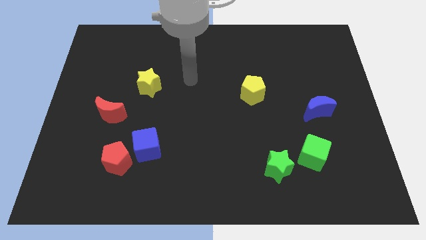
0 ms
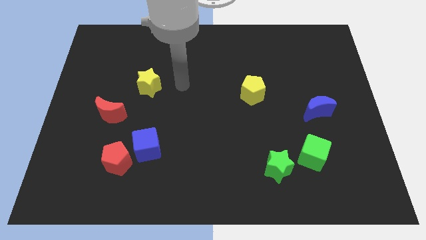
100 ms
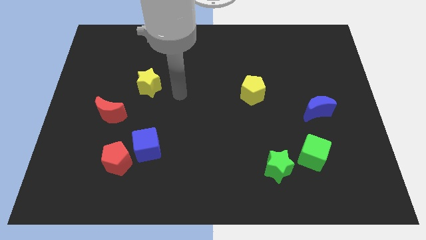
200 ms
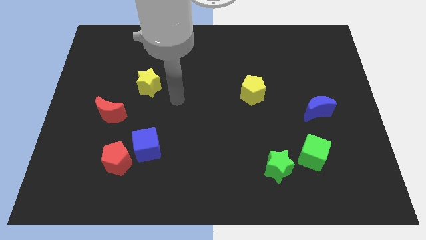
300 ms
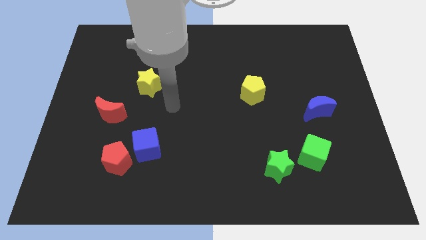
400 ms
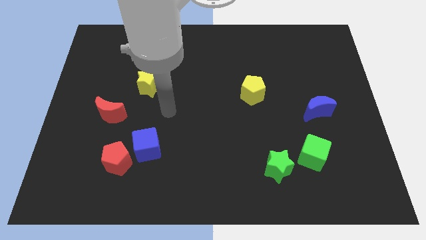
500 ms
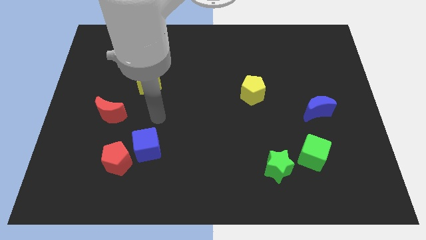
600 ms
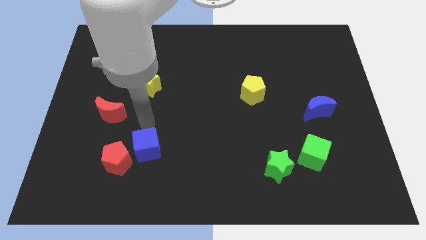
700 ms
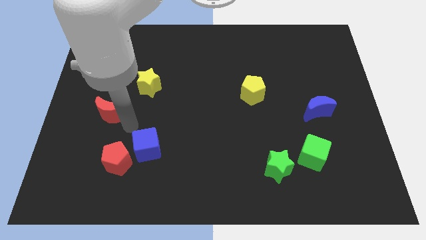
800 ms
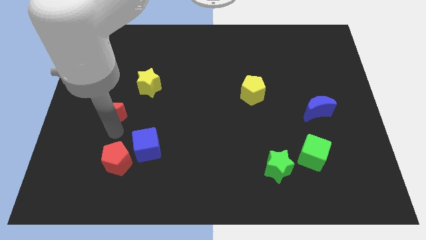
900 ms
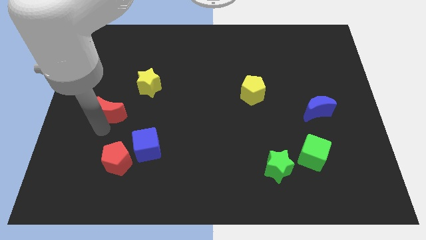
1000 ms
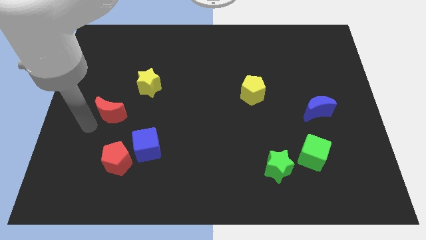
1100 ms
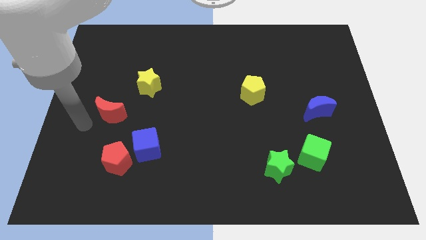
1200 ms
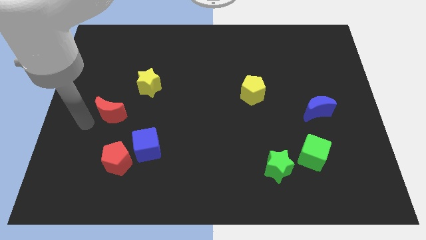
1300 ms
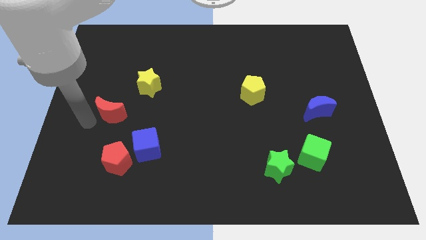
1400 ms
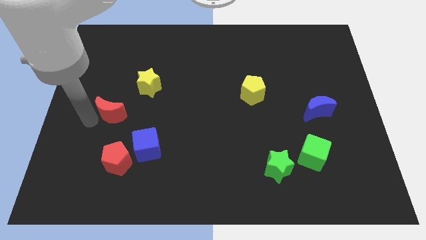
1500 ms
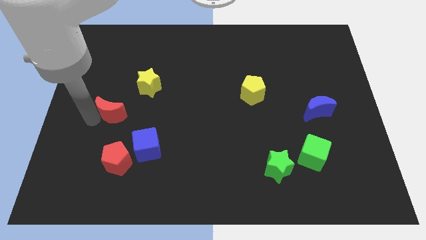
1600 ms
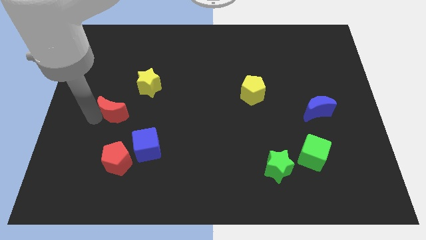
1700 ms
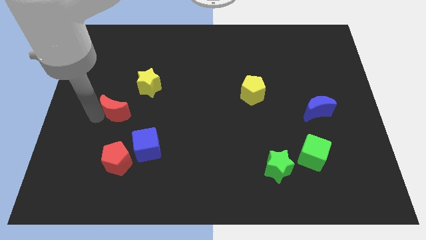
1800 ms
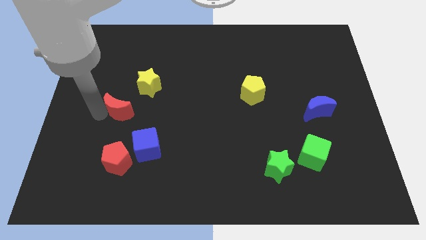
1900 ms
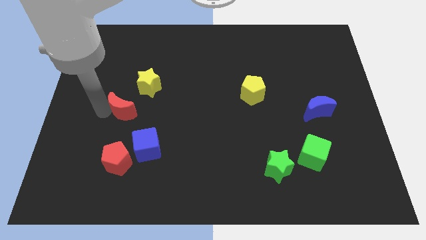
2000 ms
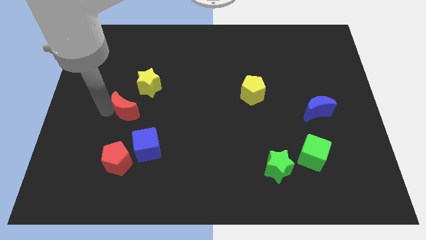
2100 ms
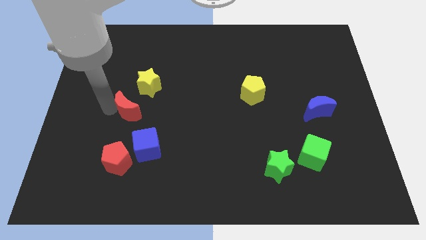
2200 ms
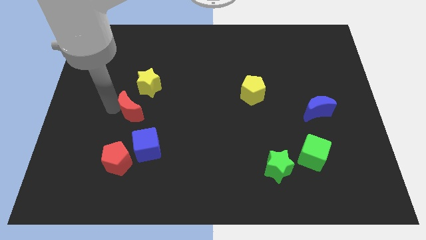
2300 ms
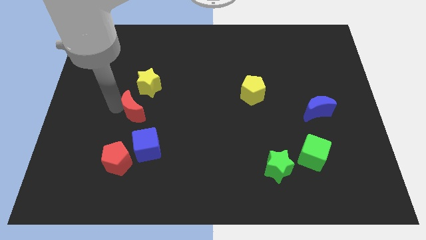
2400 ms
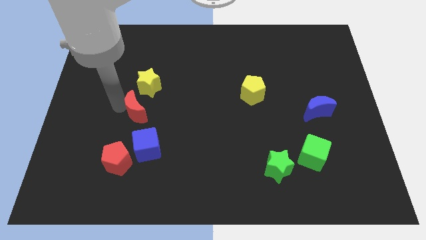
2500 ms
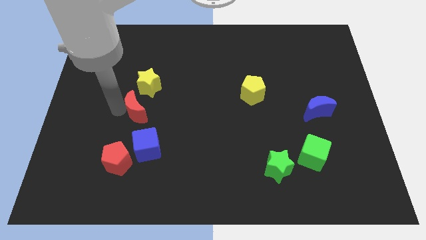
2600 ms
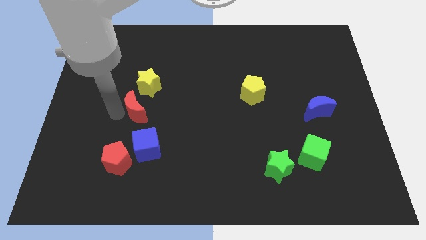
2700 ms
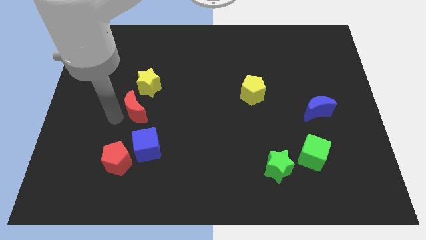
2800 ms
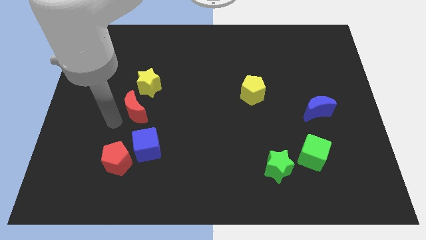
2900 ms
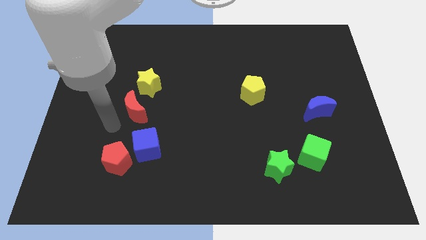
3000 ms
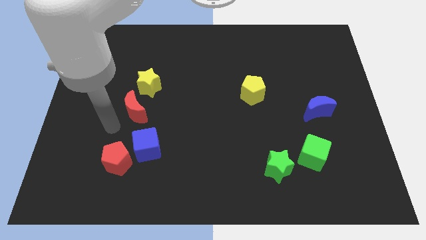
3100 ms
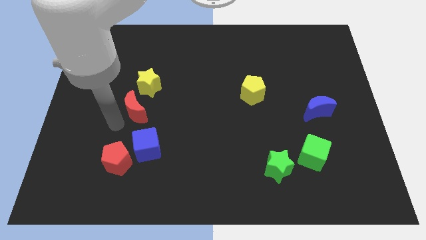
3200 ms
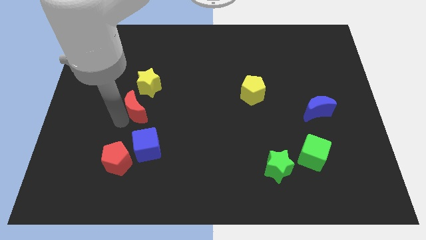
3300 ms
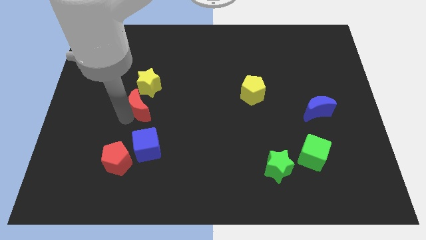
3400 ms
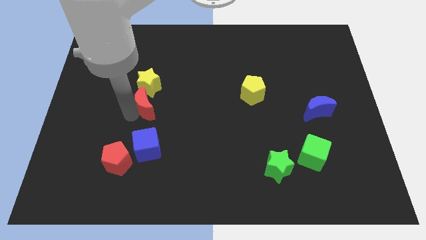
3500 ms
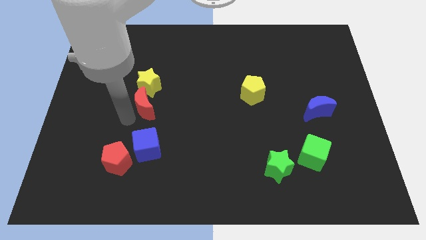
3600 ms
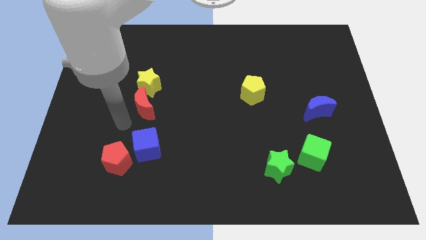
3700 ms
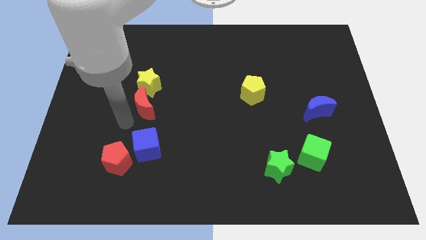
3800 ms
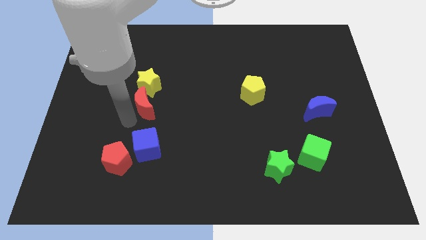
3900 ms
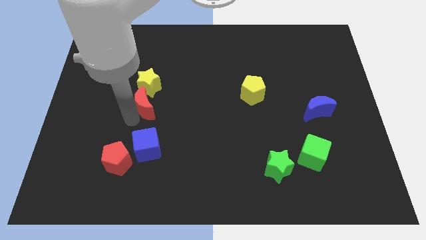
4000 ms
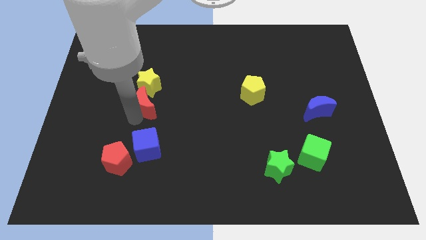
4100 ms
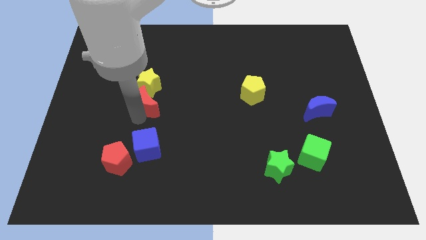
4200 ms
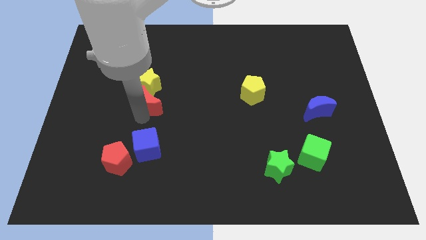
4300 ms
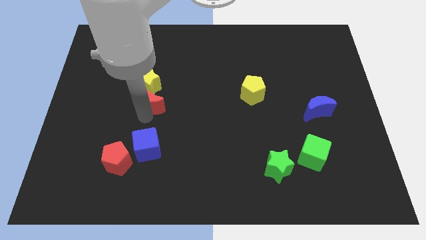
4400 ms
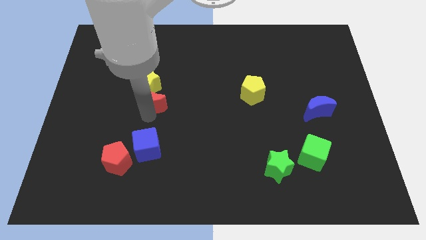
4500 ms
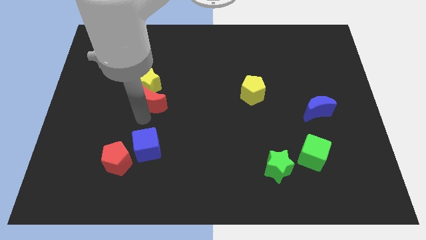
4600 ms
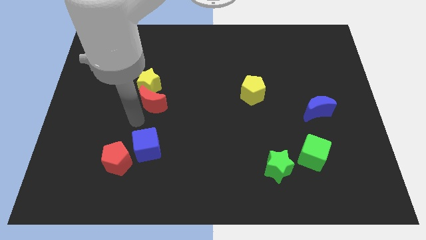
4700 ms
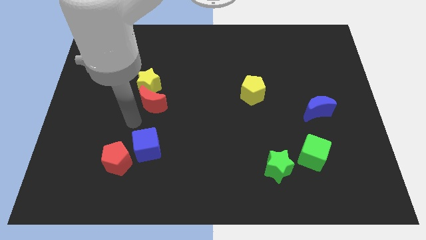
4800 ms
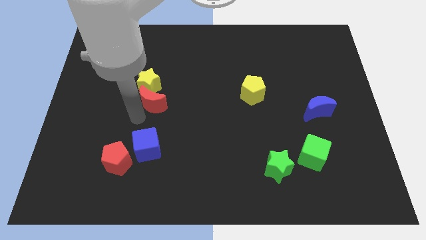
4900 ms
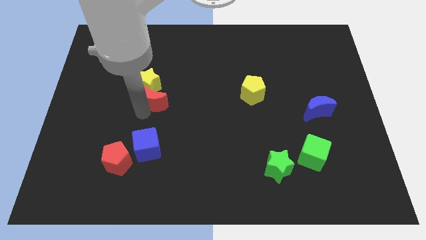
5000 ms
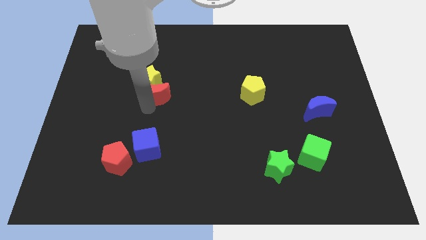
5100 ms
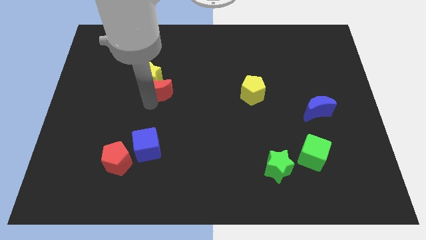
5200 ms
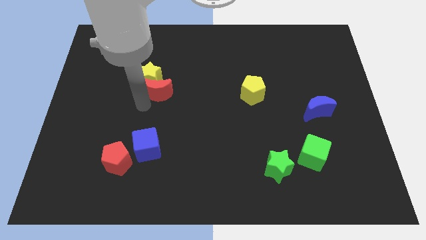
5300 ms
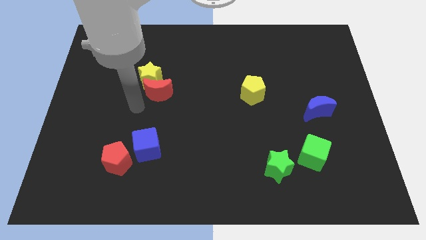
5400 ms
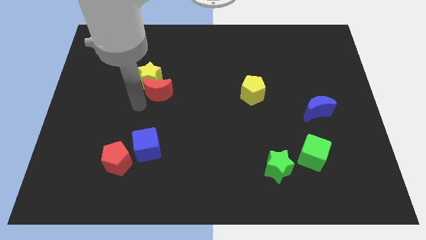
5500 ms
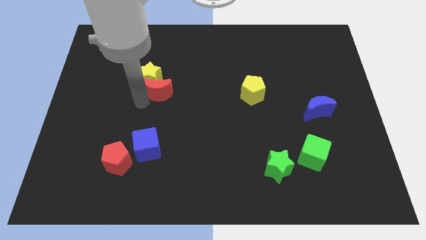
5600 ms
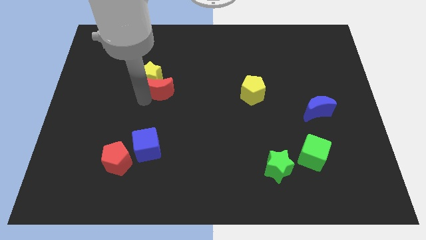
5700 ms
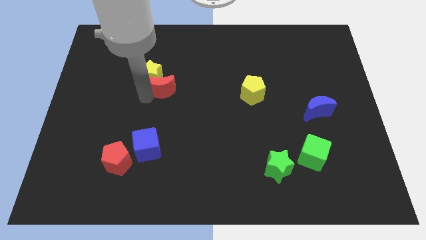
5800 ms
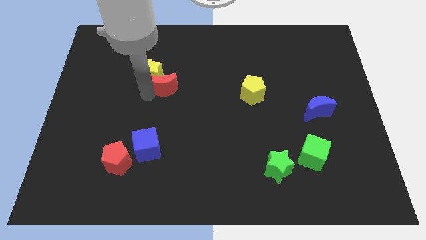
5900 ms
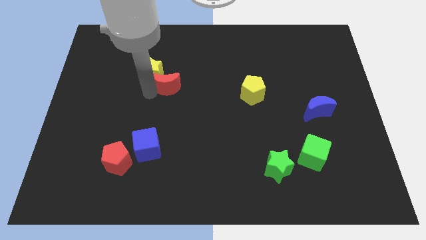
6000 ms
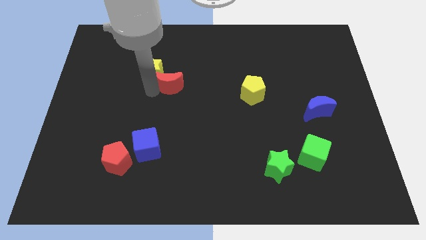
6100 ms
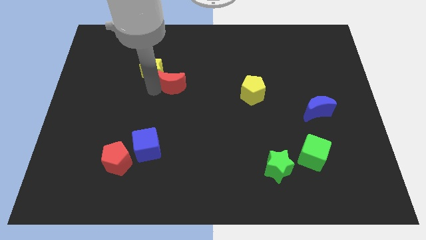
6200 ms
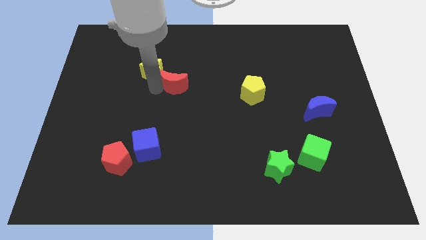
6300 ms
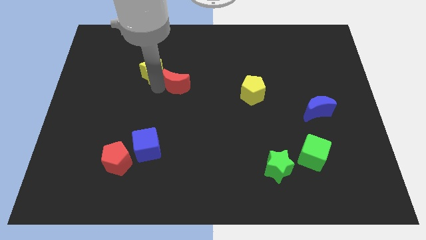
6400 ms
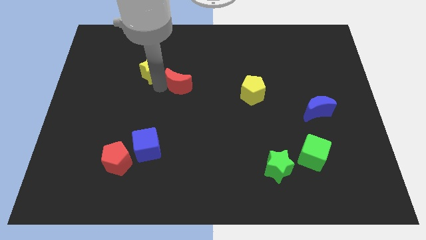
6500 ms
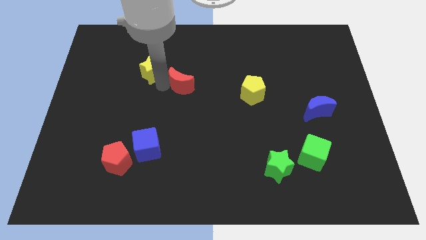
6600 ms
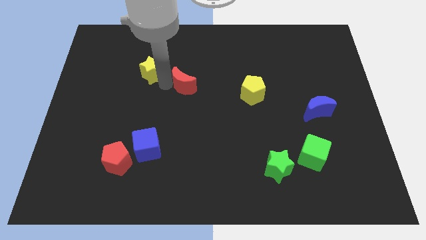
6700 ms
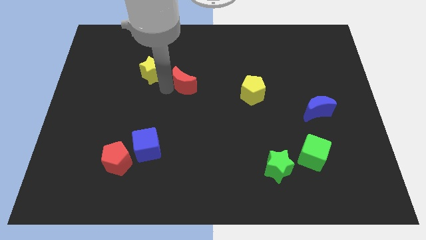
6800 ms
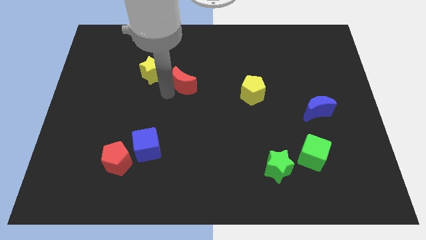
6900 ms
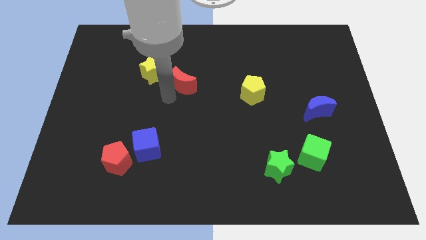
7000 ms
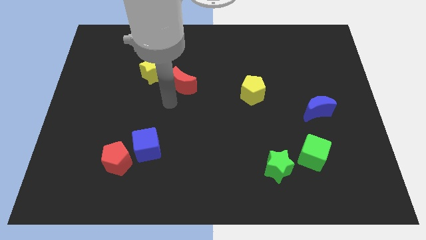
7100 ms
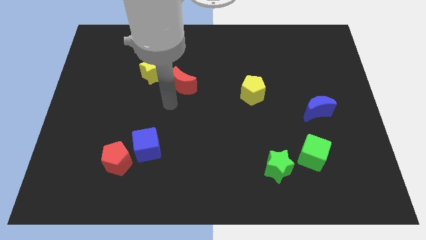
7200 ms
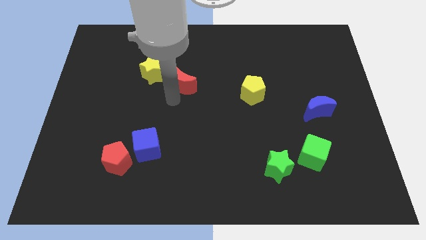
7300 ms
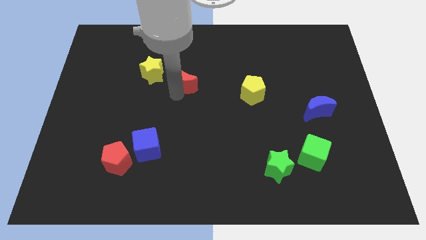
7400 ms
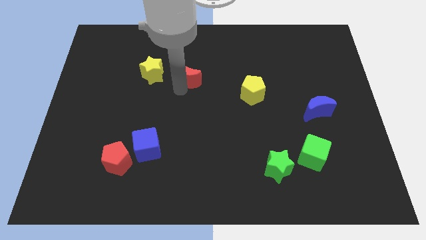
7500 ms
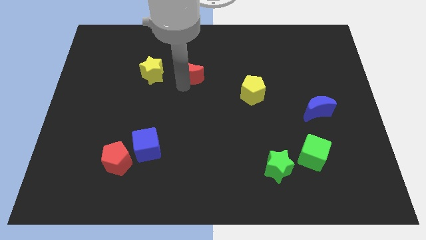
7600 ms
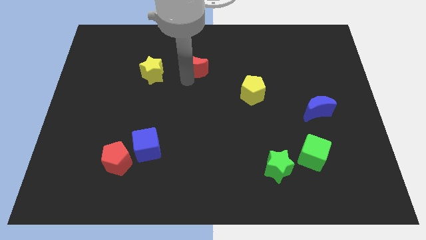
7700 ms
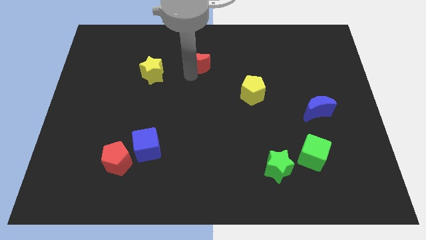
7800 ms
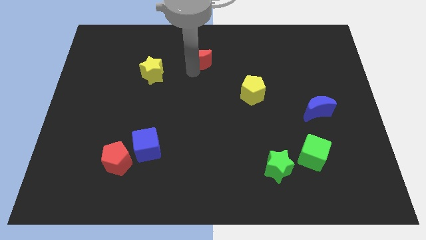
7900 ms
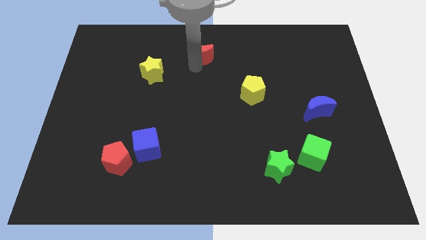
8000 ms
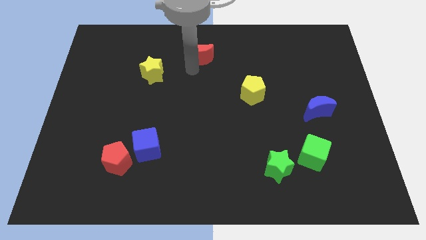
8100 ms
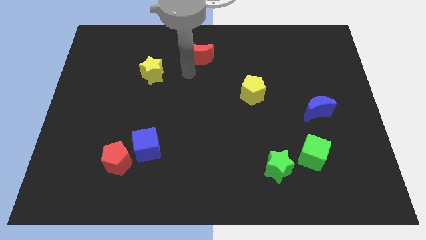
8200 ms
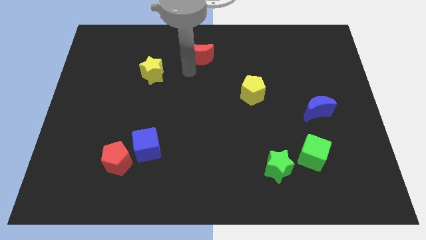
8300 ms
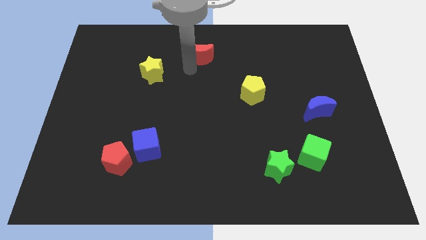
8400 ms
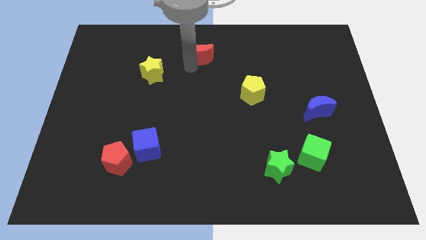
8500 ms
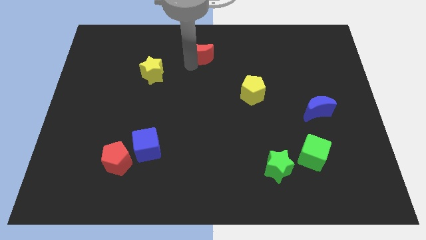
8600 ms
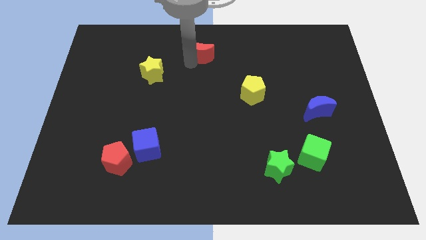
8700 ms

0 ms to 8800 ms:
move the red moon to the top side
